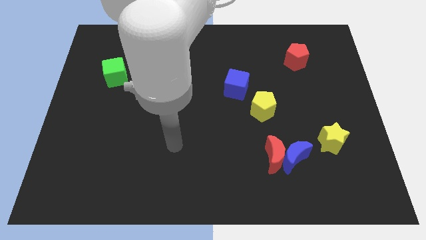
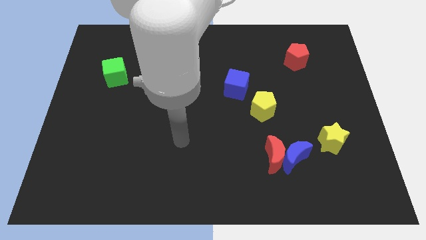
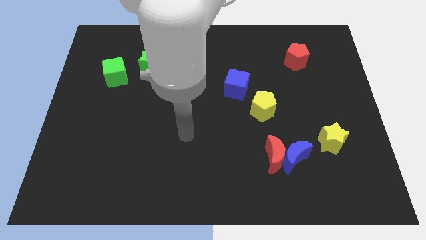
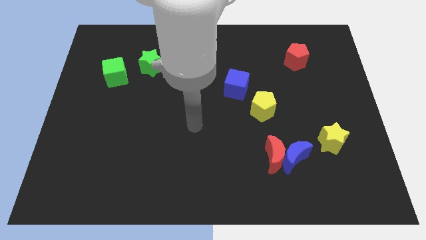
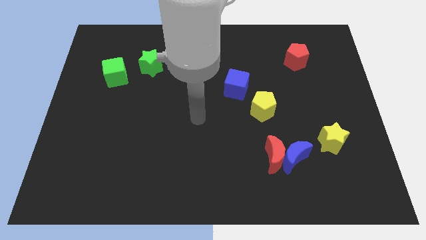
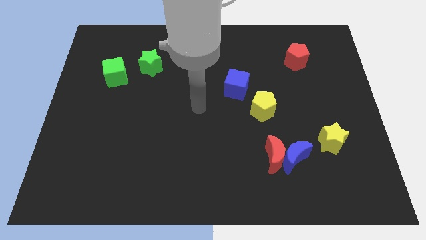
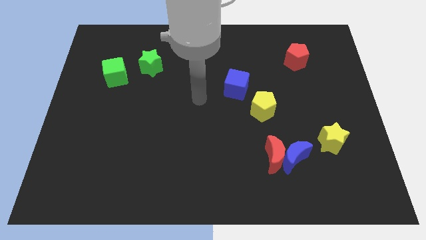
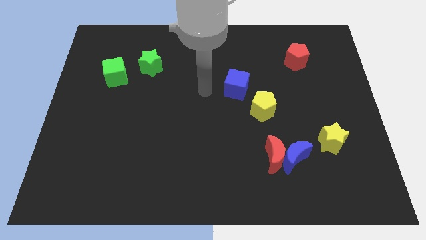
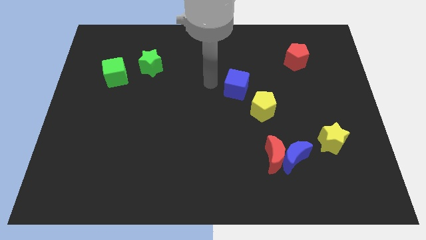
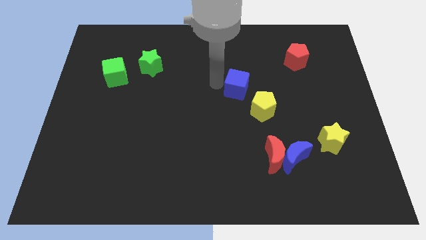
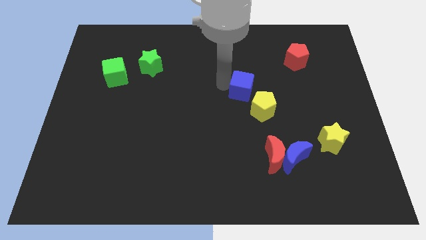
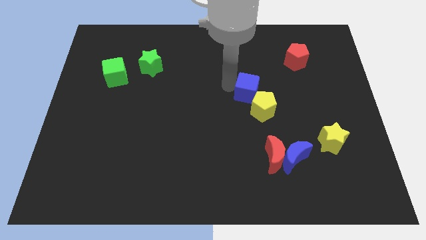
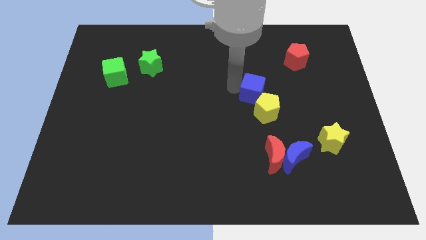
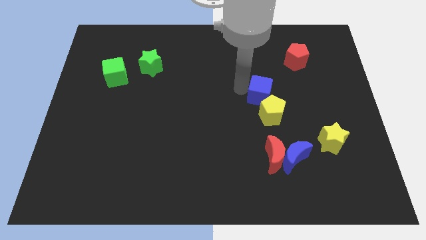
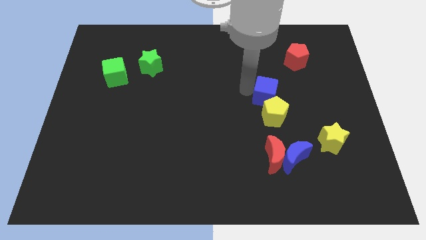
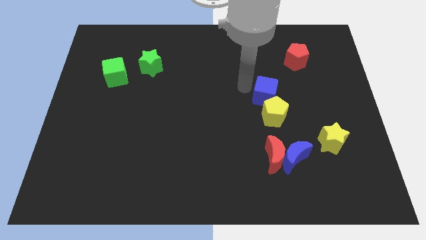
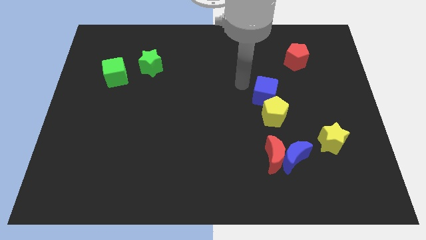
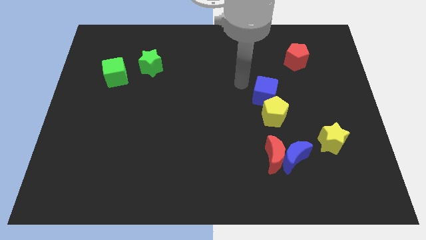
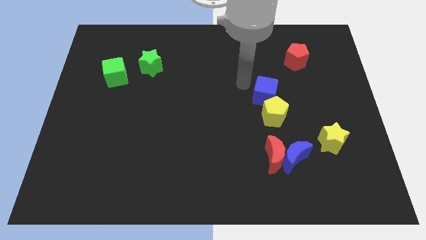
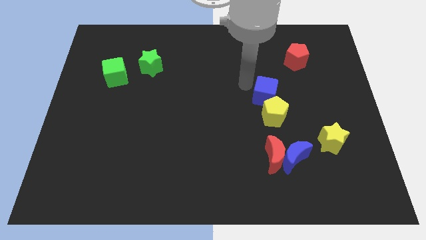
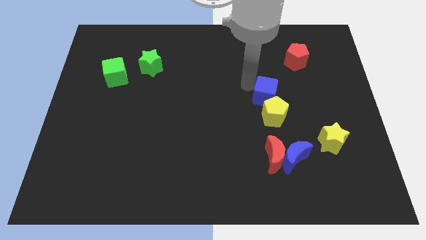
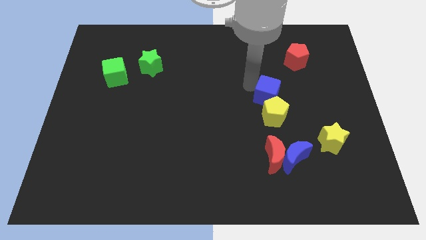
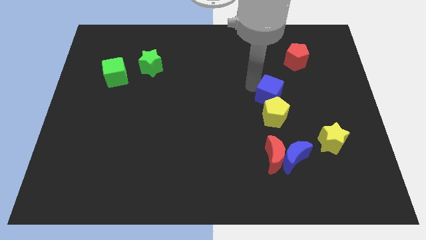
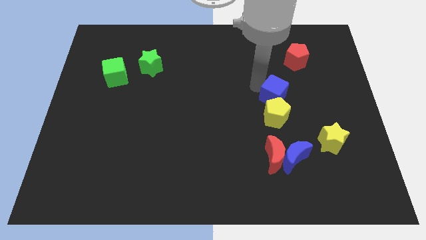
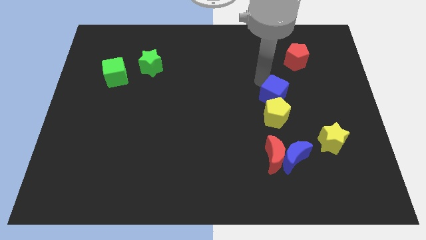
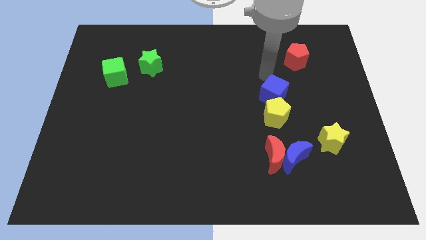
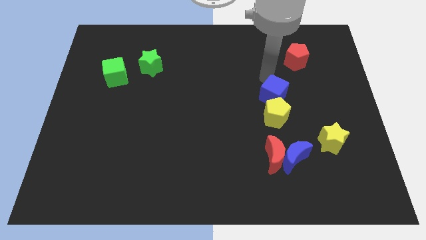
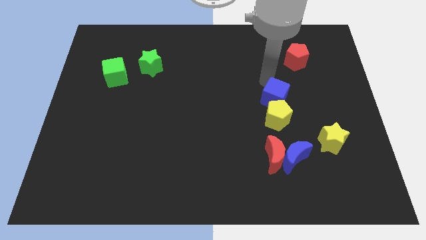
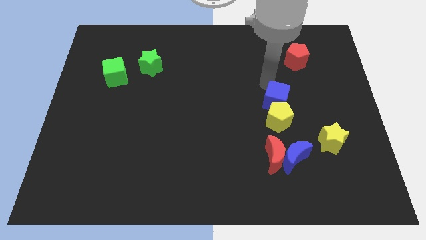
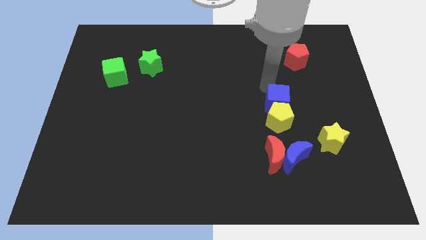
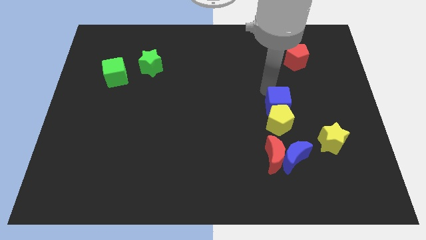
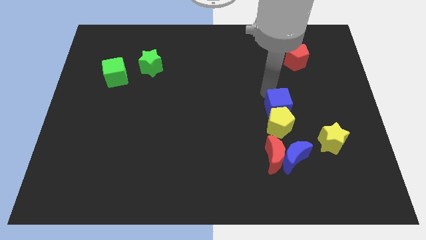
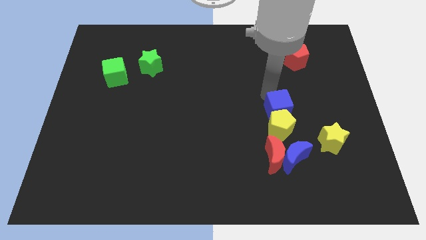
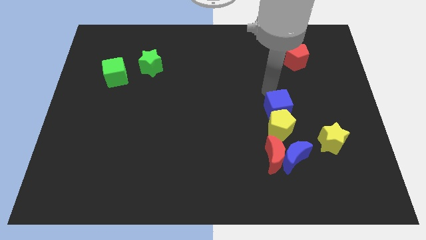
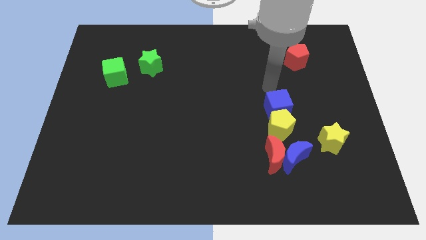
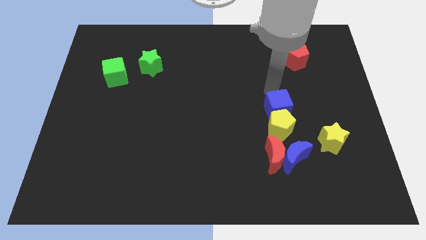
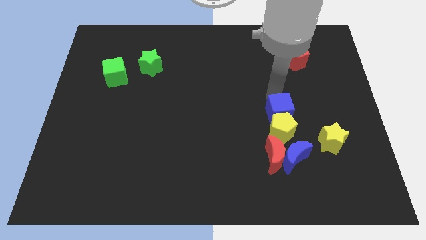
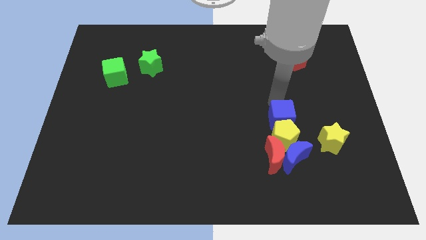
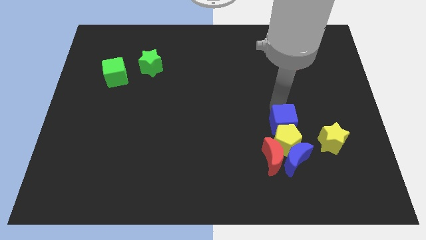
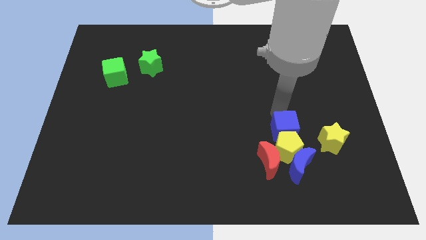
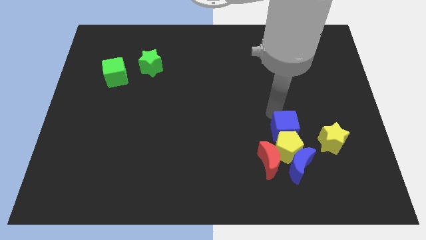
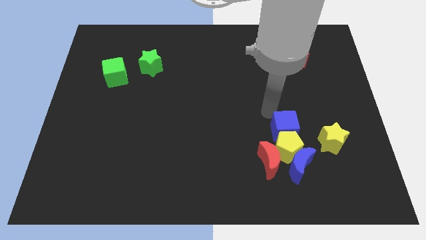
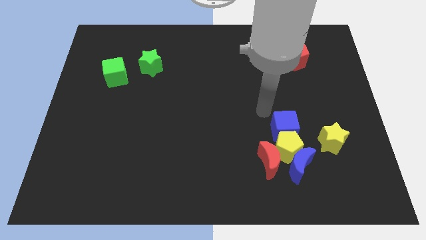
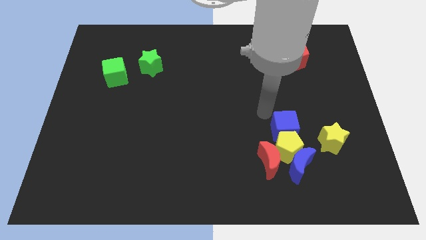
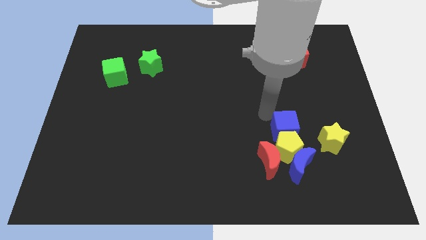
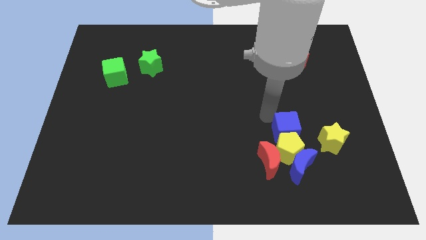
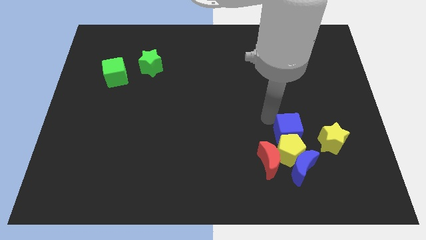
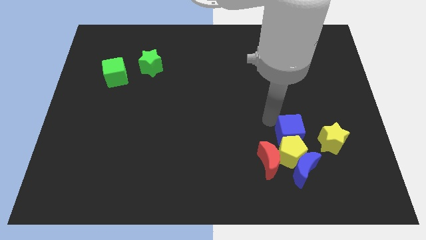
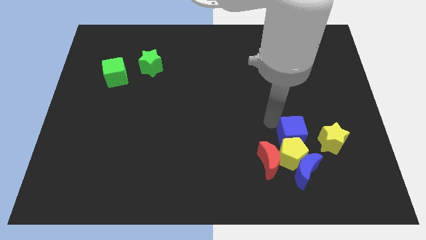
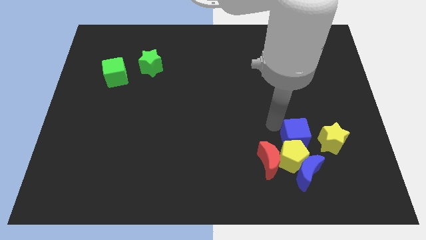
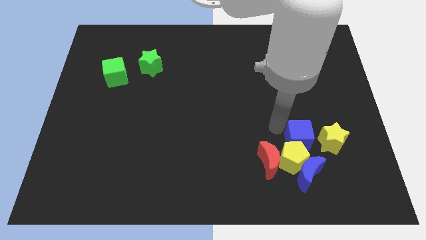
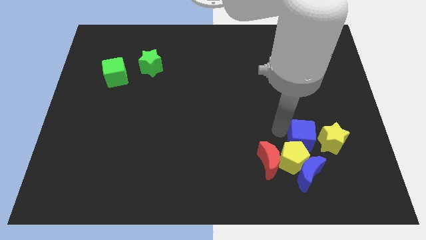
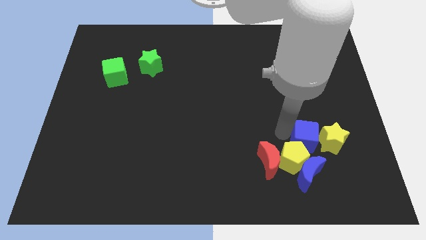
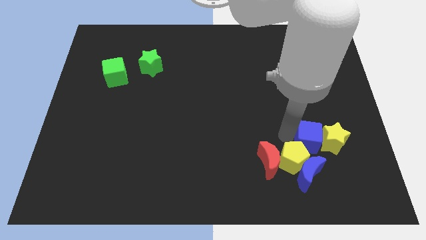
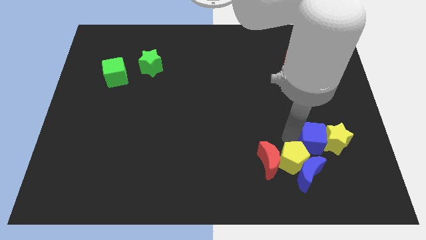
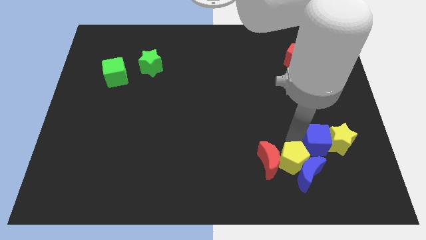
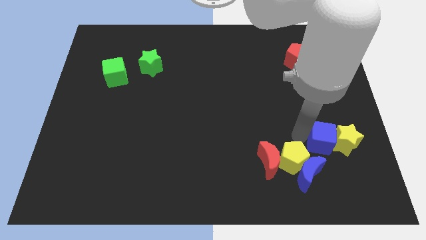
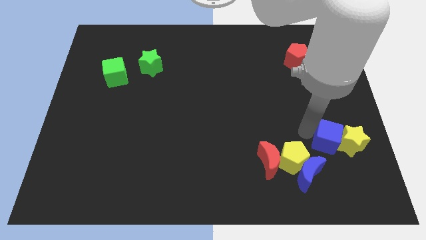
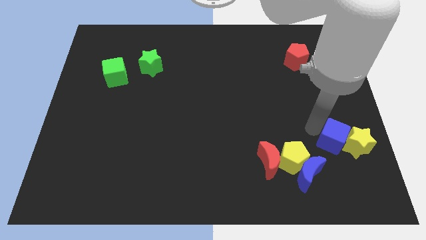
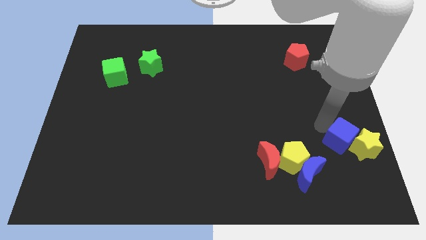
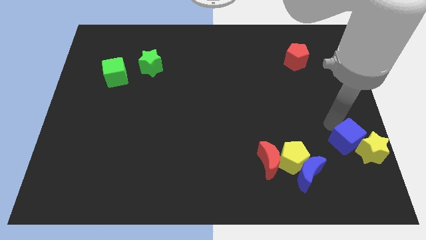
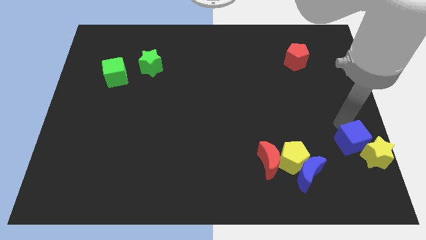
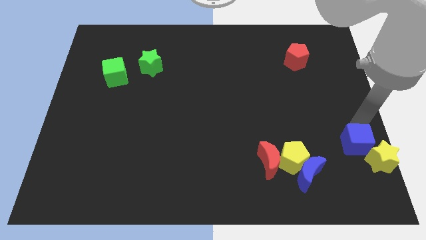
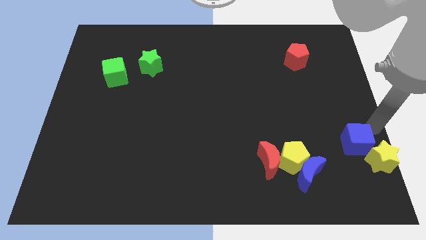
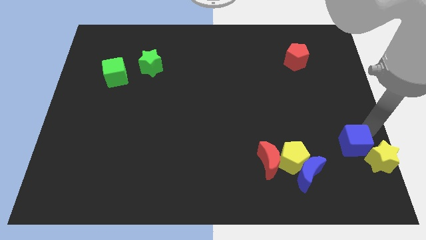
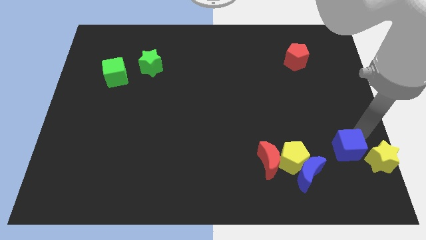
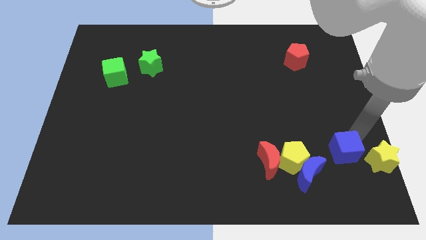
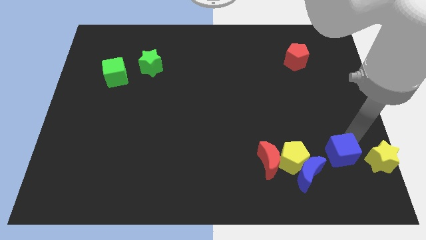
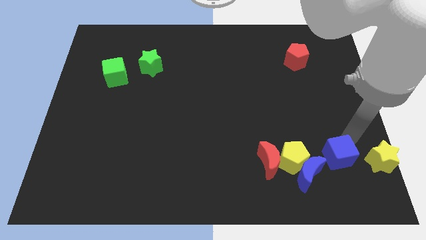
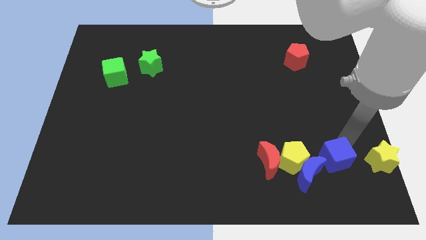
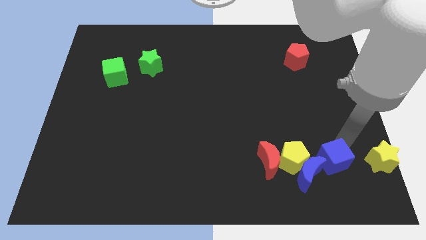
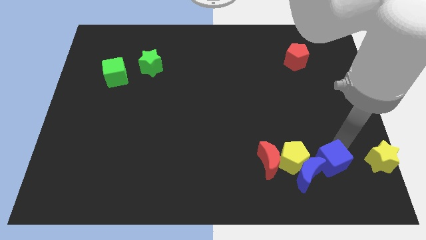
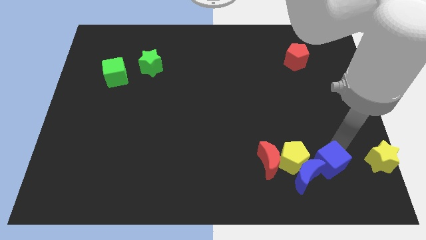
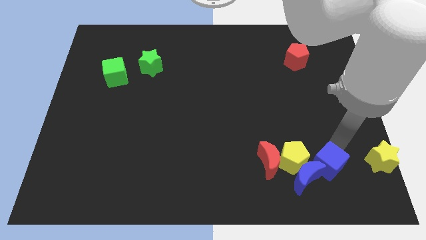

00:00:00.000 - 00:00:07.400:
put the blue cube close to the blue moon
